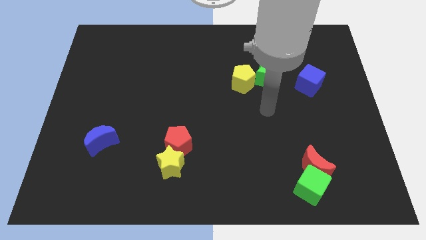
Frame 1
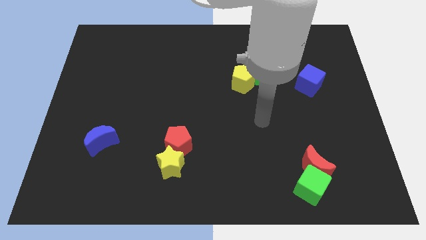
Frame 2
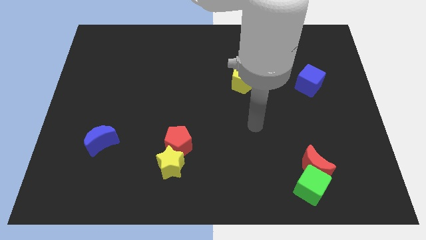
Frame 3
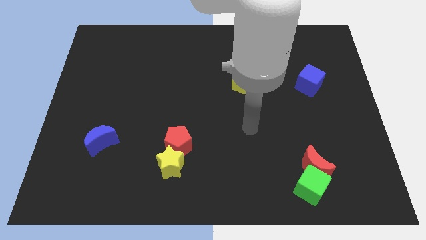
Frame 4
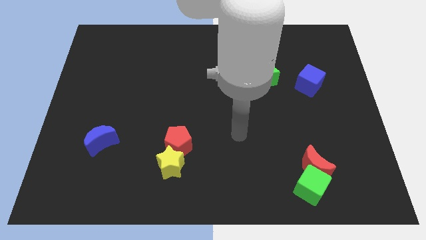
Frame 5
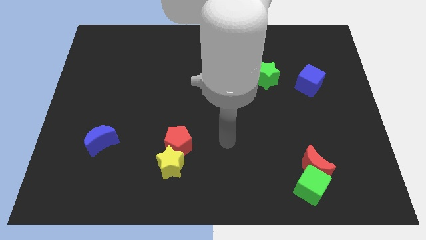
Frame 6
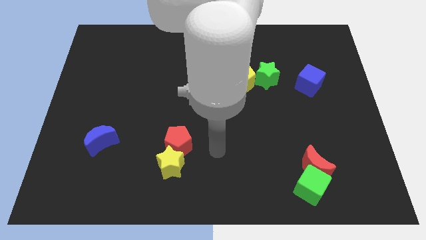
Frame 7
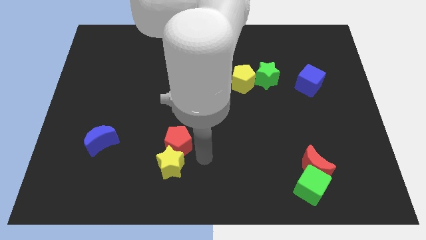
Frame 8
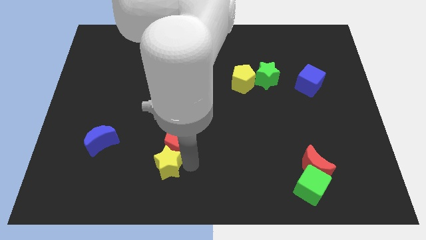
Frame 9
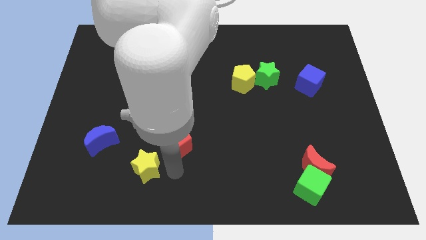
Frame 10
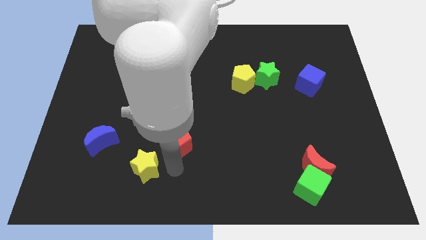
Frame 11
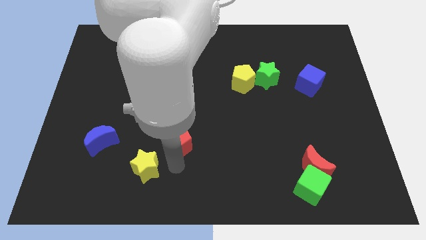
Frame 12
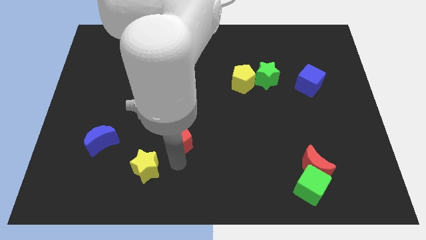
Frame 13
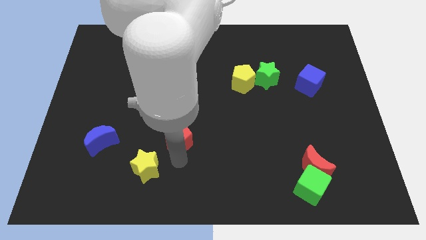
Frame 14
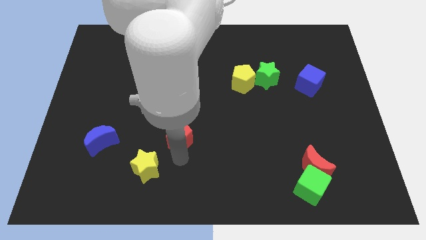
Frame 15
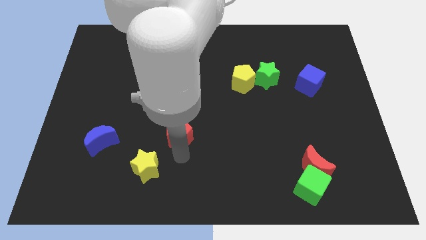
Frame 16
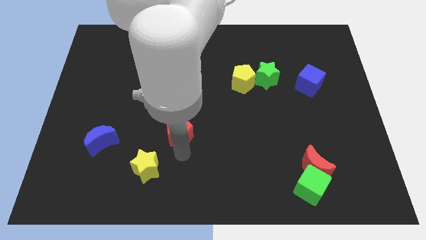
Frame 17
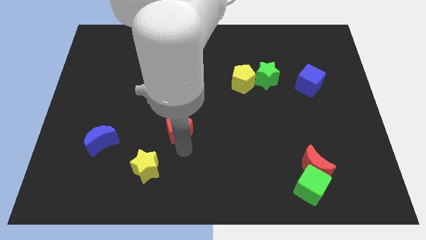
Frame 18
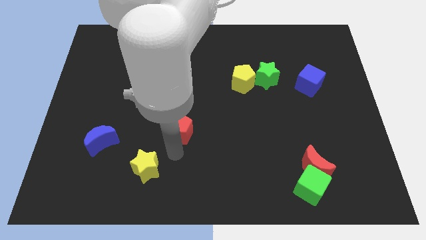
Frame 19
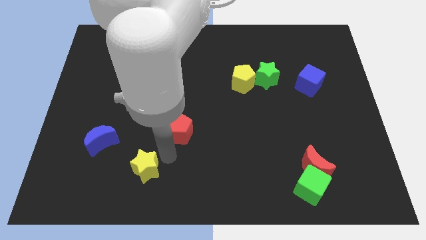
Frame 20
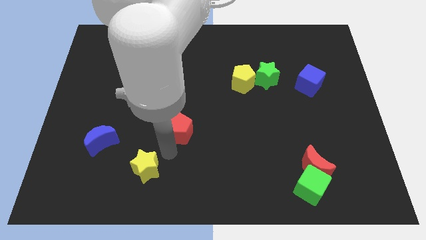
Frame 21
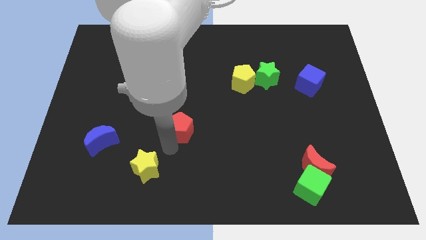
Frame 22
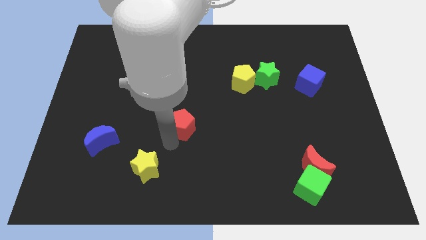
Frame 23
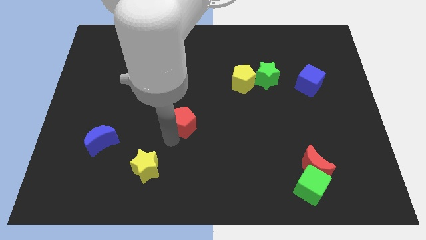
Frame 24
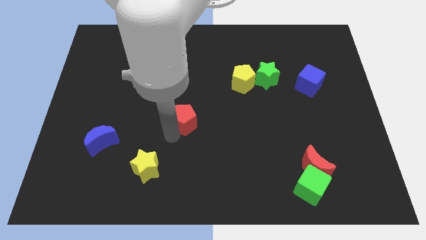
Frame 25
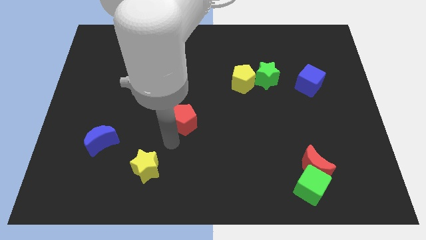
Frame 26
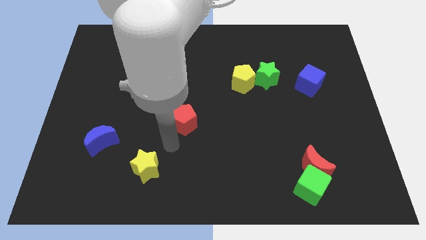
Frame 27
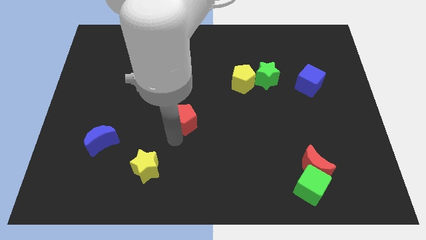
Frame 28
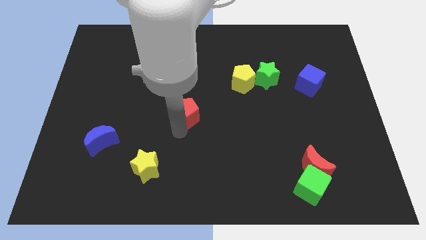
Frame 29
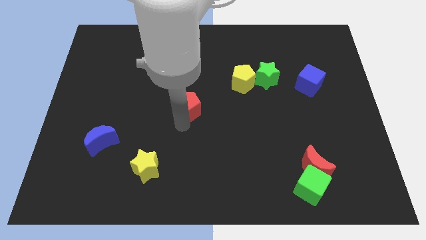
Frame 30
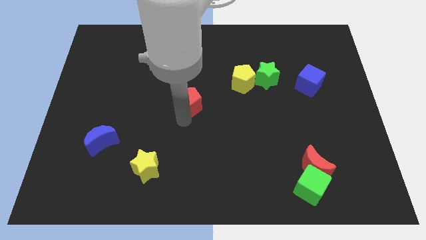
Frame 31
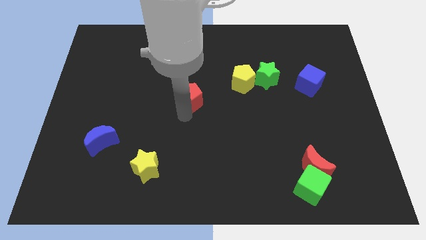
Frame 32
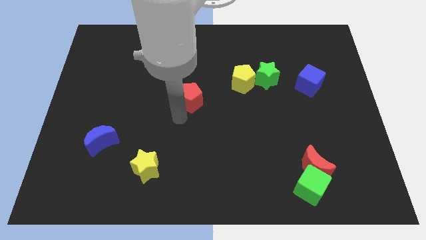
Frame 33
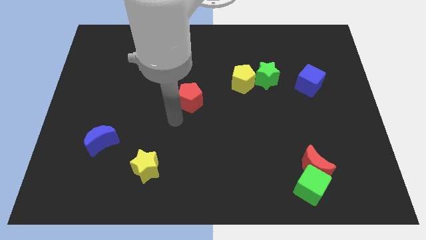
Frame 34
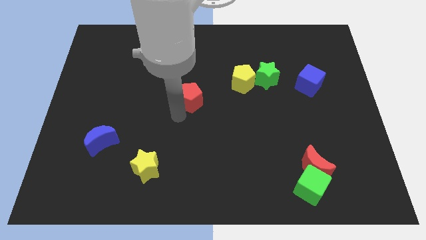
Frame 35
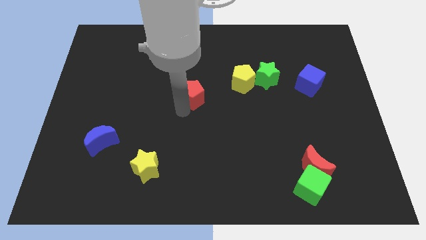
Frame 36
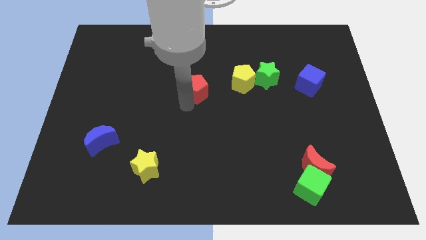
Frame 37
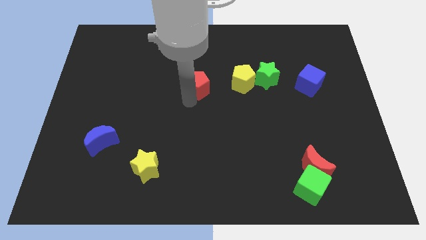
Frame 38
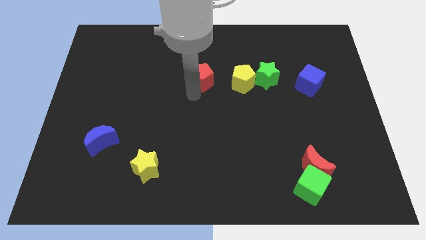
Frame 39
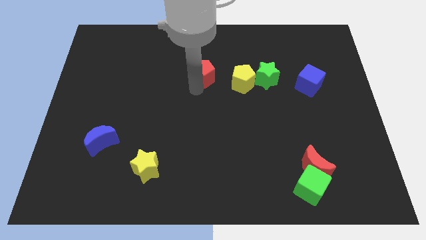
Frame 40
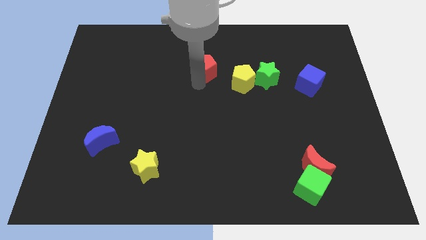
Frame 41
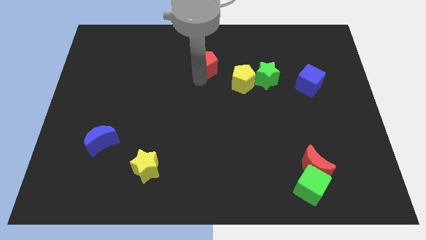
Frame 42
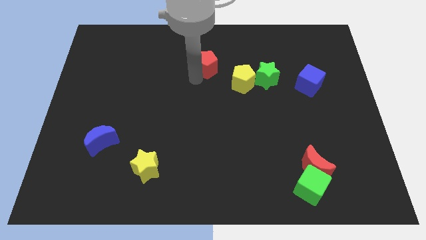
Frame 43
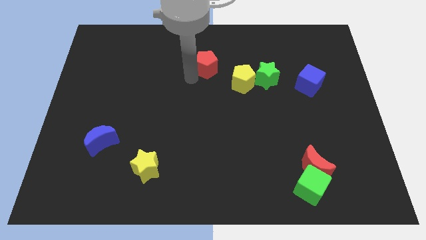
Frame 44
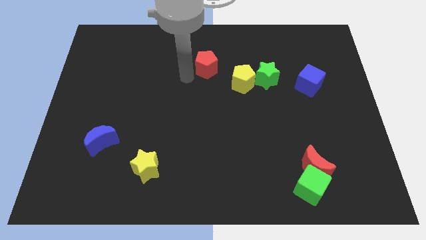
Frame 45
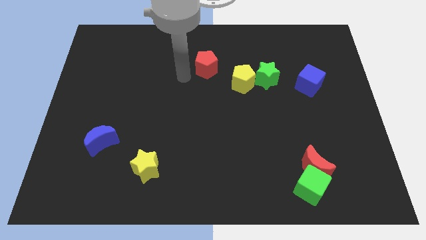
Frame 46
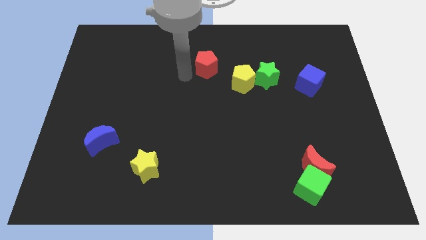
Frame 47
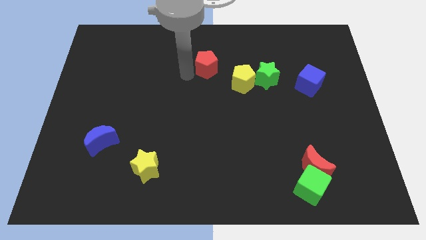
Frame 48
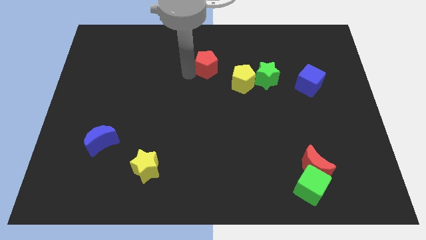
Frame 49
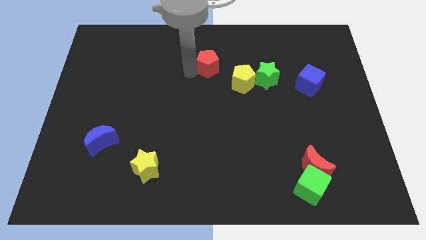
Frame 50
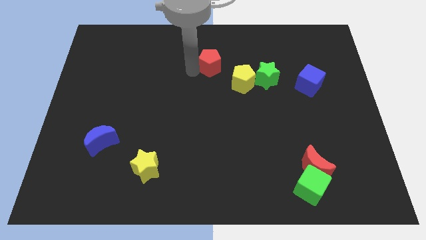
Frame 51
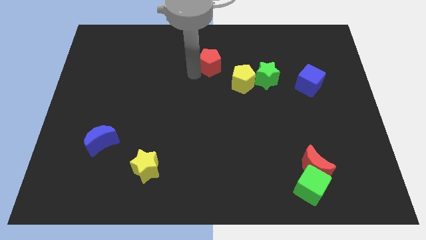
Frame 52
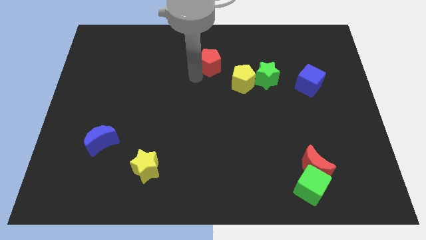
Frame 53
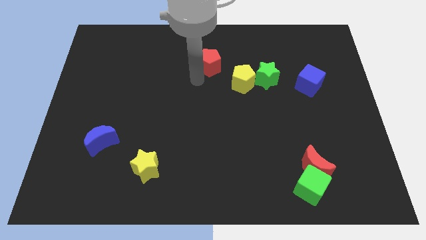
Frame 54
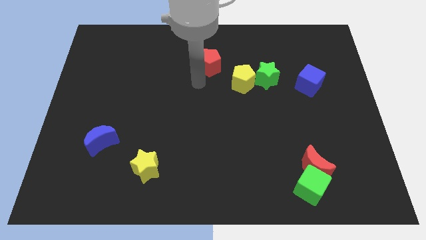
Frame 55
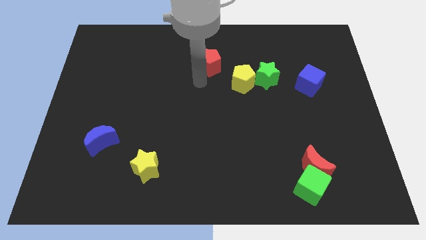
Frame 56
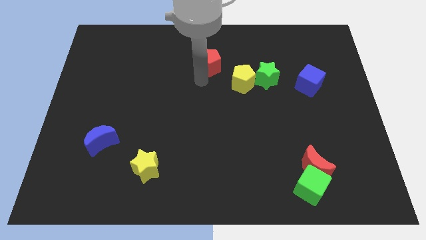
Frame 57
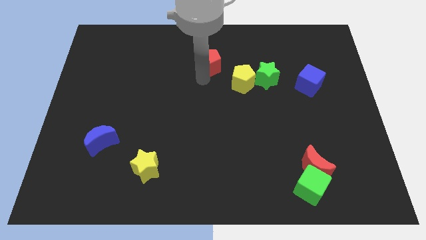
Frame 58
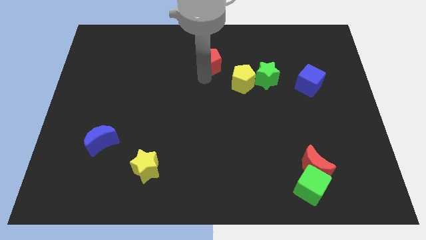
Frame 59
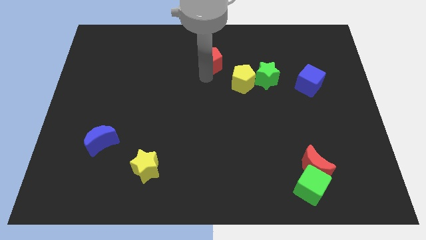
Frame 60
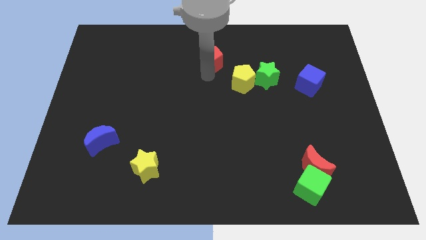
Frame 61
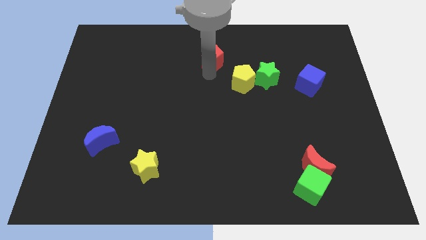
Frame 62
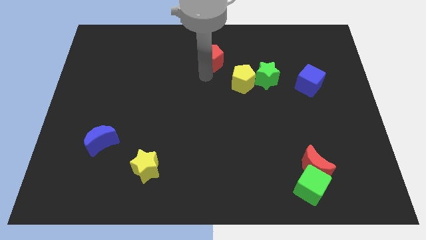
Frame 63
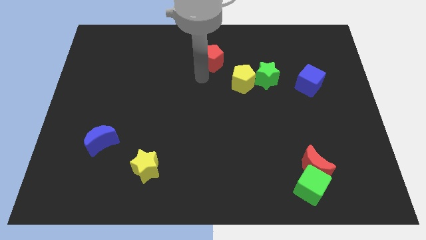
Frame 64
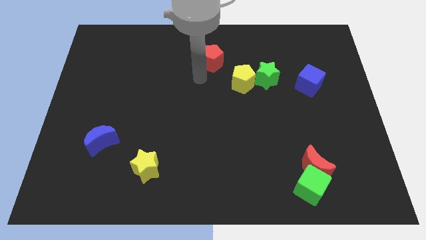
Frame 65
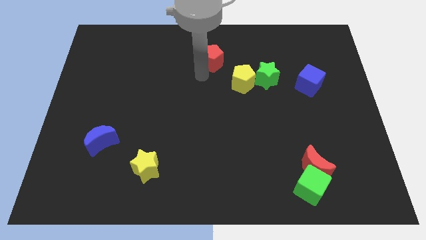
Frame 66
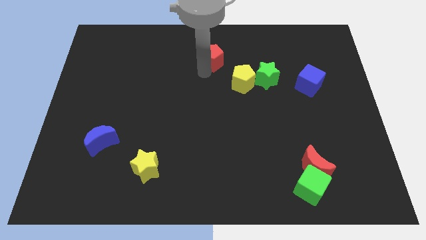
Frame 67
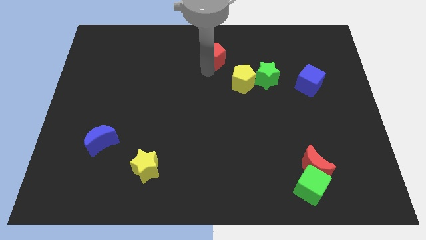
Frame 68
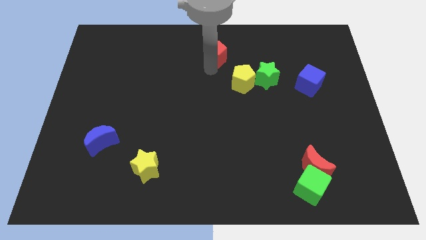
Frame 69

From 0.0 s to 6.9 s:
put the red pentagon to the top
